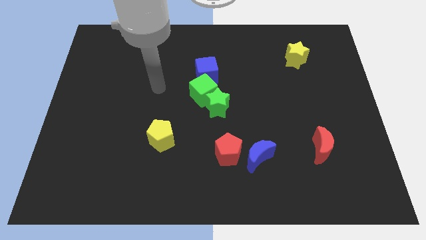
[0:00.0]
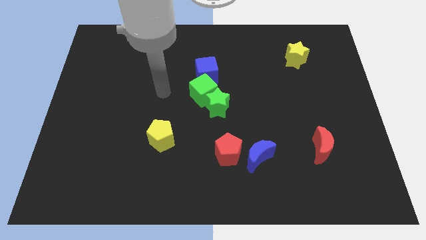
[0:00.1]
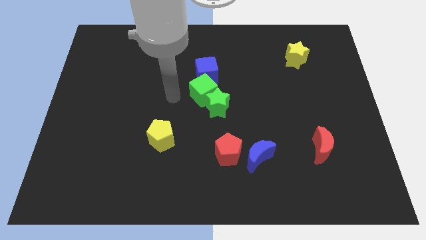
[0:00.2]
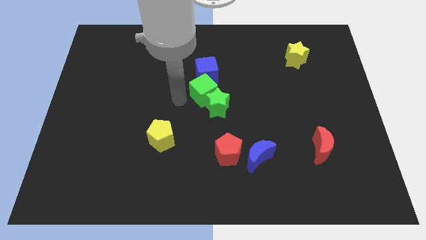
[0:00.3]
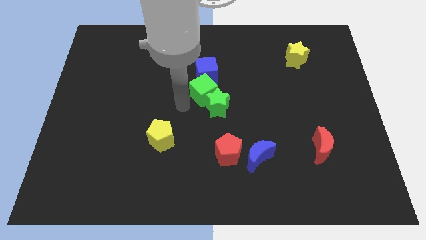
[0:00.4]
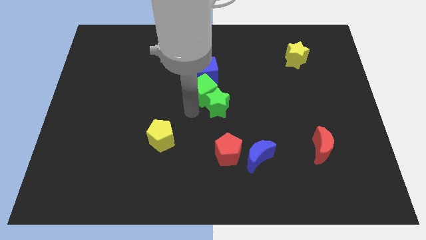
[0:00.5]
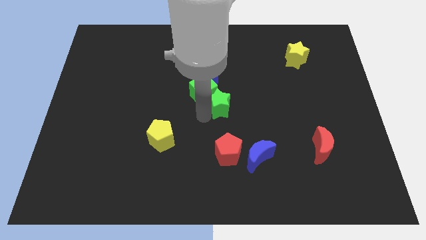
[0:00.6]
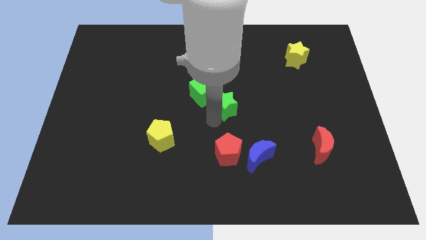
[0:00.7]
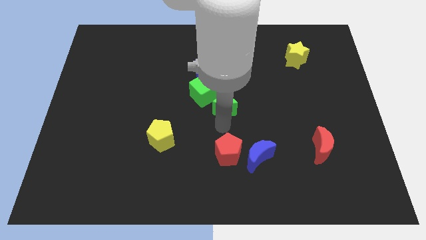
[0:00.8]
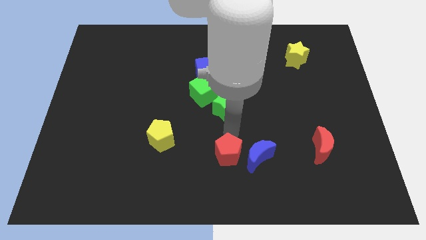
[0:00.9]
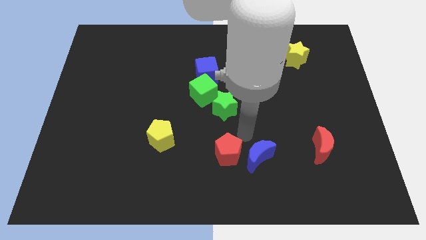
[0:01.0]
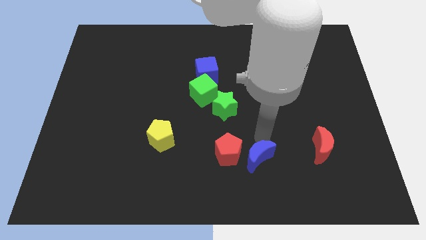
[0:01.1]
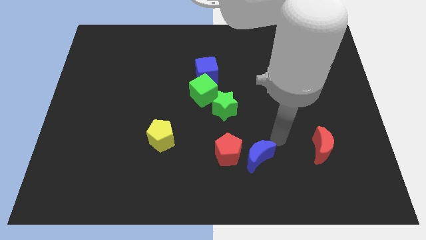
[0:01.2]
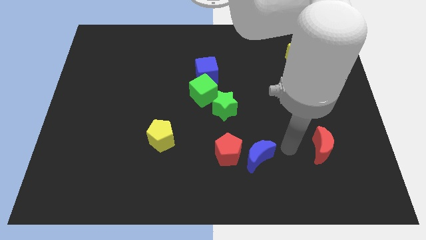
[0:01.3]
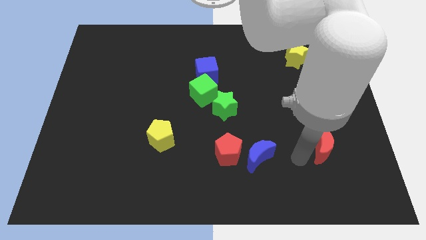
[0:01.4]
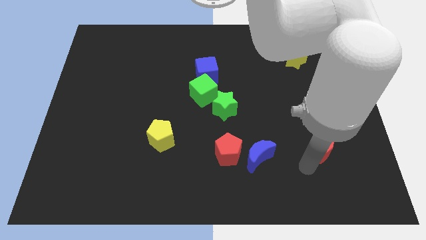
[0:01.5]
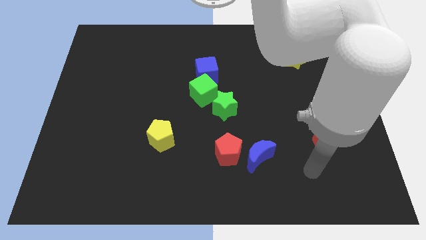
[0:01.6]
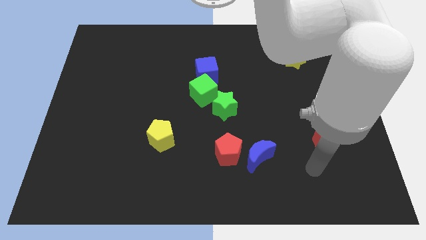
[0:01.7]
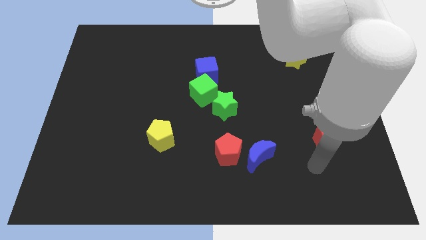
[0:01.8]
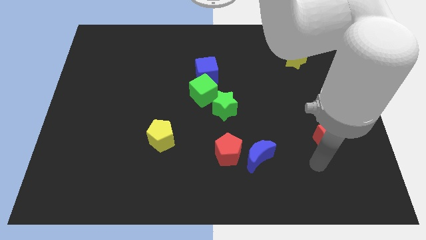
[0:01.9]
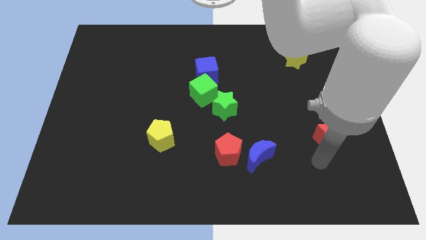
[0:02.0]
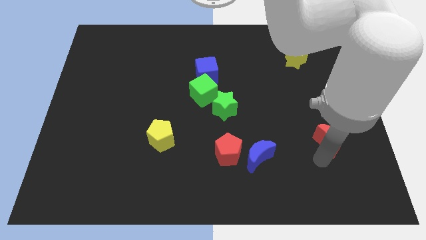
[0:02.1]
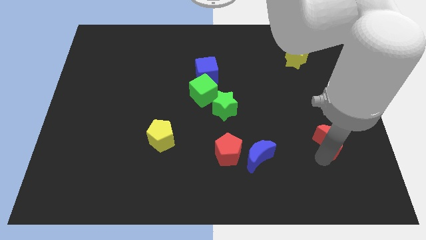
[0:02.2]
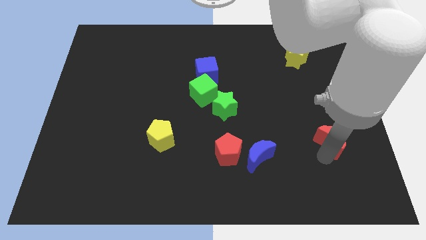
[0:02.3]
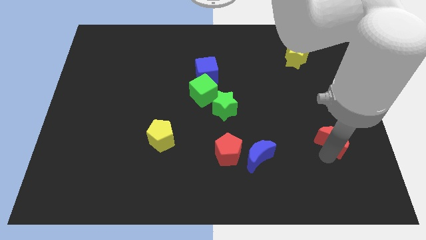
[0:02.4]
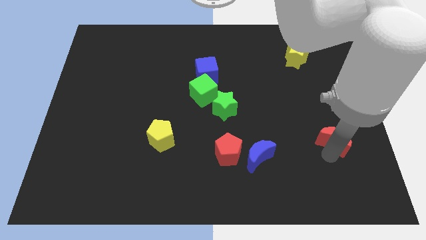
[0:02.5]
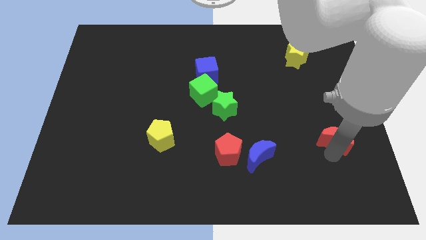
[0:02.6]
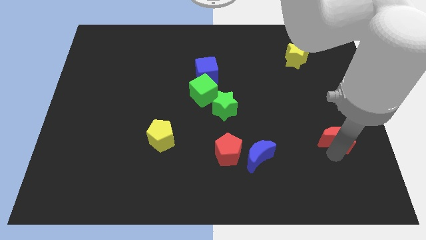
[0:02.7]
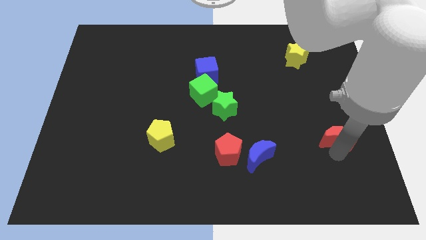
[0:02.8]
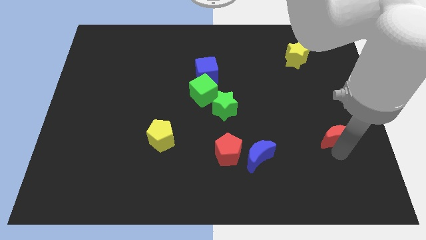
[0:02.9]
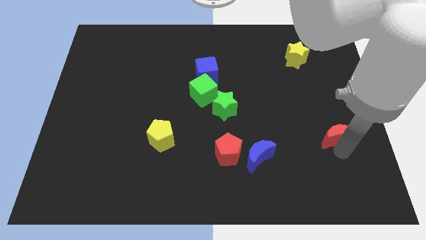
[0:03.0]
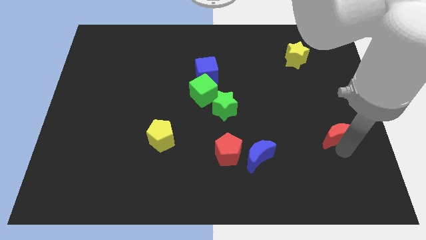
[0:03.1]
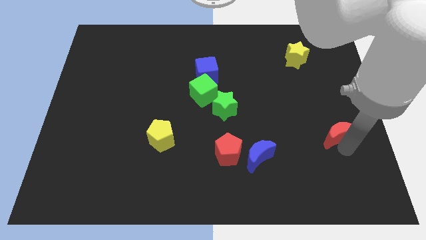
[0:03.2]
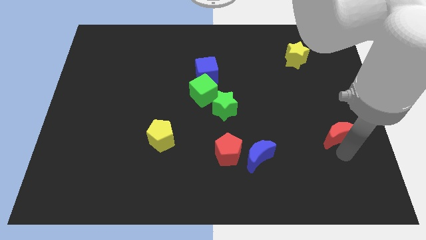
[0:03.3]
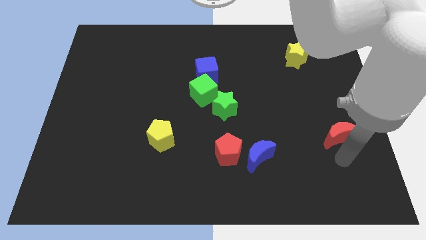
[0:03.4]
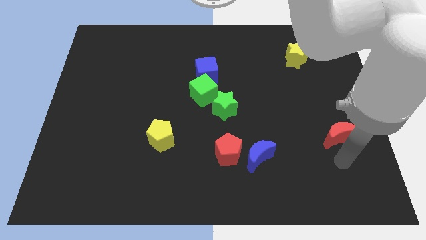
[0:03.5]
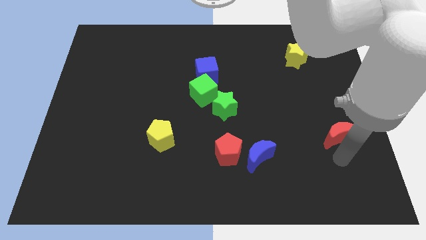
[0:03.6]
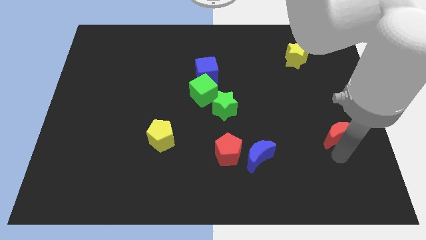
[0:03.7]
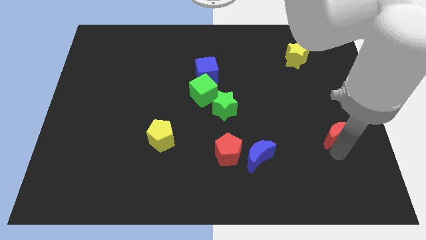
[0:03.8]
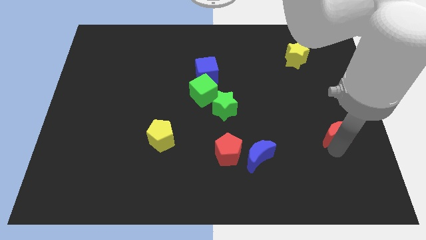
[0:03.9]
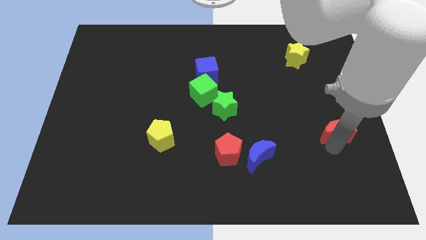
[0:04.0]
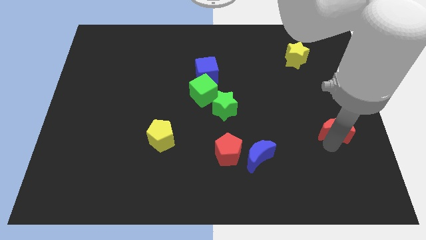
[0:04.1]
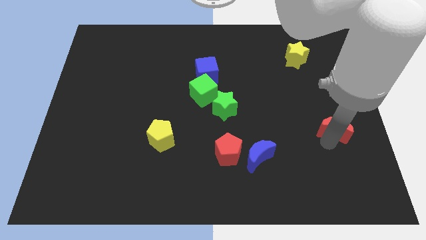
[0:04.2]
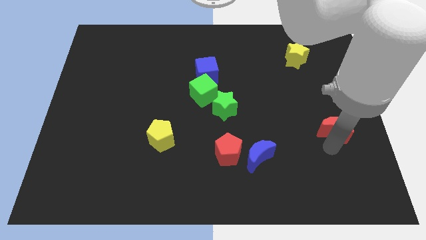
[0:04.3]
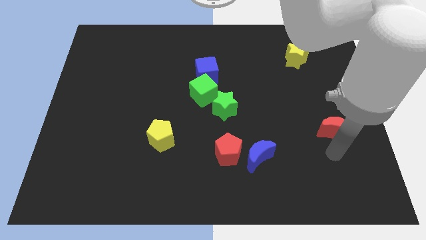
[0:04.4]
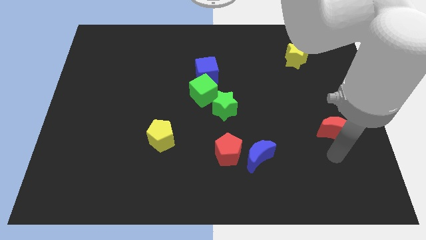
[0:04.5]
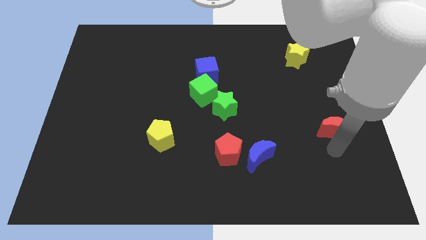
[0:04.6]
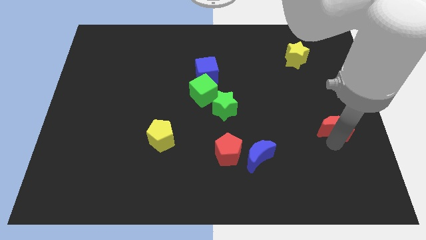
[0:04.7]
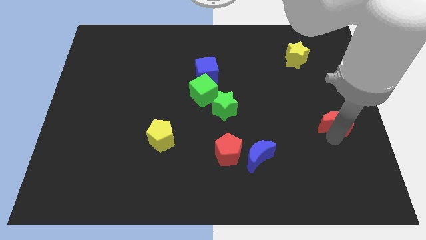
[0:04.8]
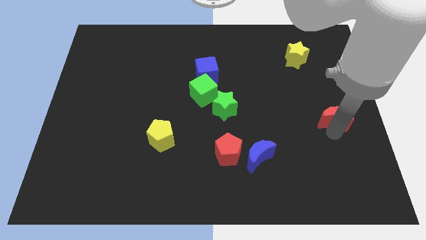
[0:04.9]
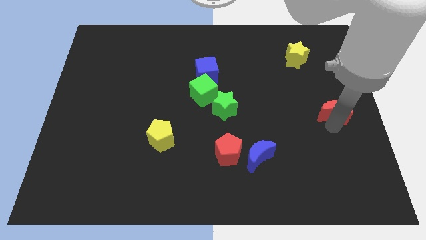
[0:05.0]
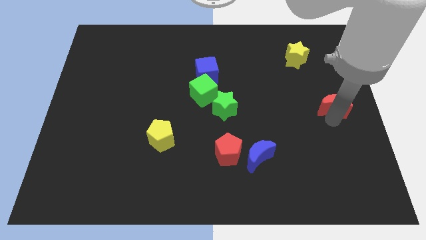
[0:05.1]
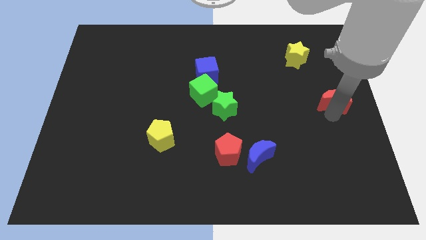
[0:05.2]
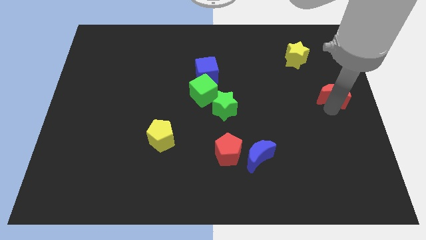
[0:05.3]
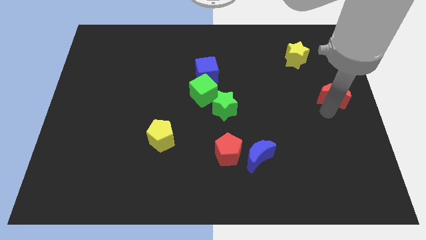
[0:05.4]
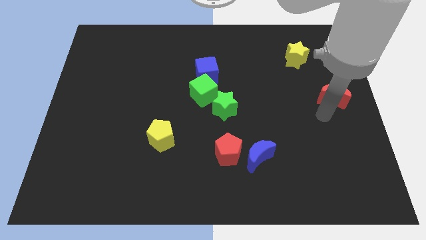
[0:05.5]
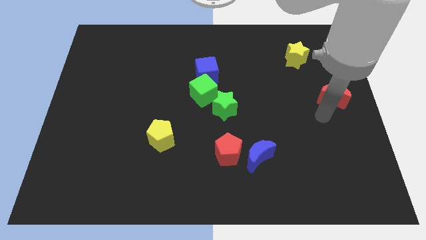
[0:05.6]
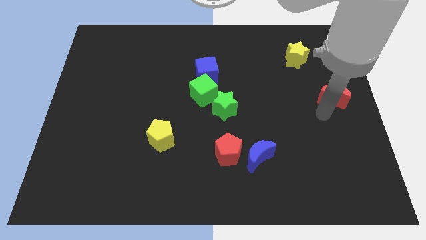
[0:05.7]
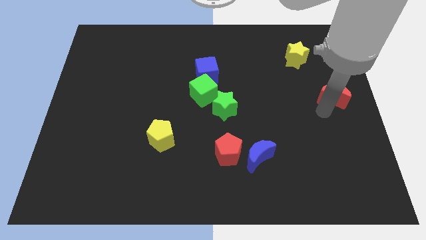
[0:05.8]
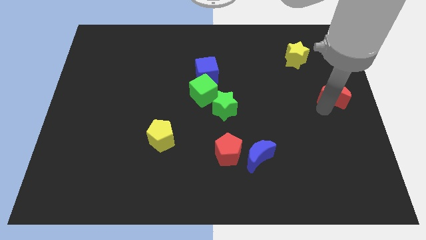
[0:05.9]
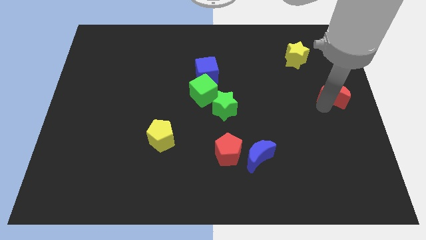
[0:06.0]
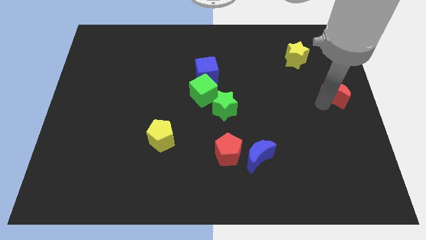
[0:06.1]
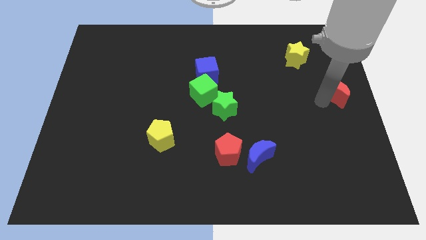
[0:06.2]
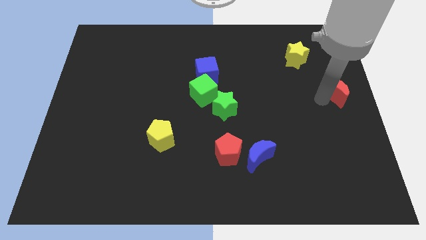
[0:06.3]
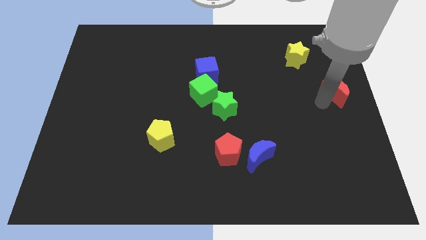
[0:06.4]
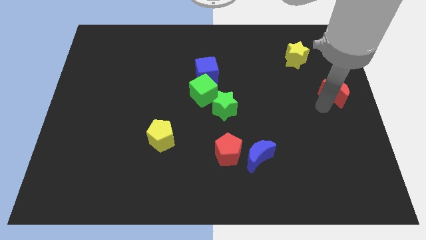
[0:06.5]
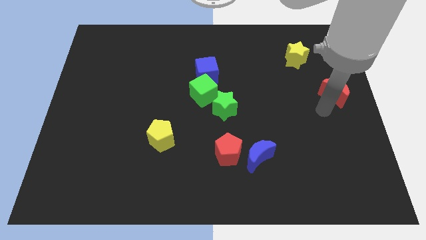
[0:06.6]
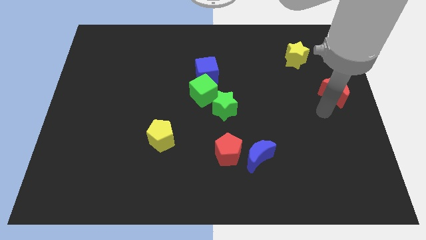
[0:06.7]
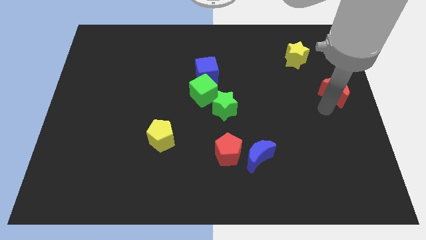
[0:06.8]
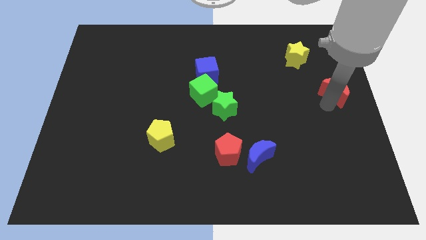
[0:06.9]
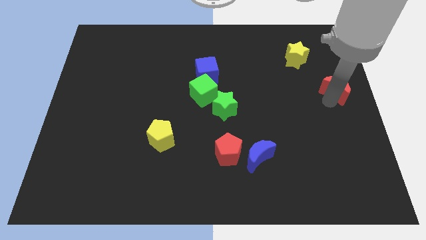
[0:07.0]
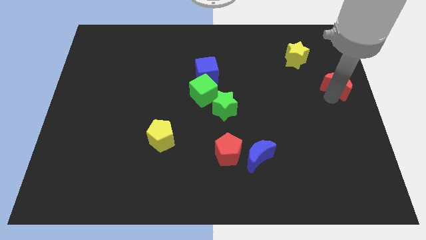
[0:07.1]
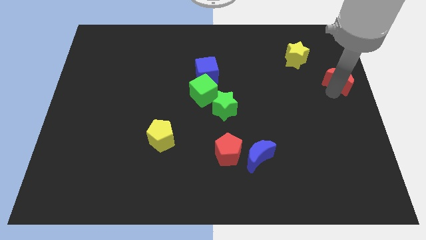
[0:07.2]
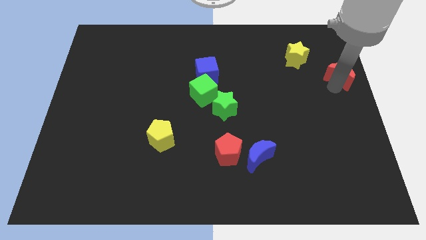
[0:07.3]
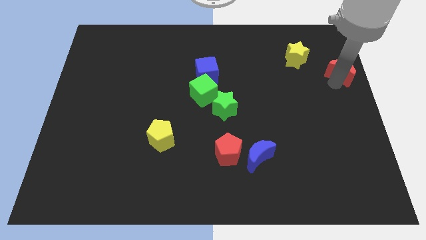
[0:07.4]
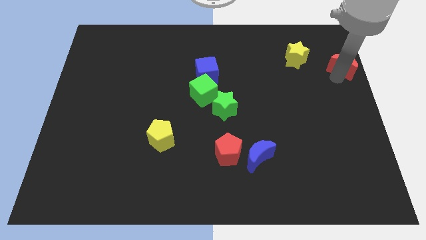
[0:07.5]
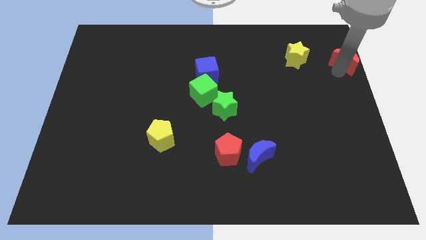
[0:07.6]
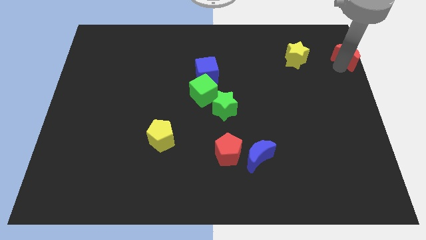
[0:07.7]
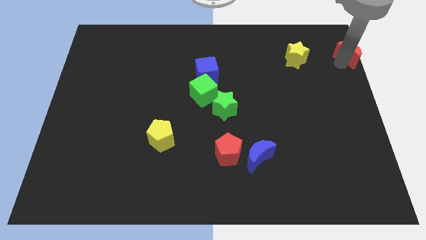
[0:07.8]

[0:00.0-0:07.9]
push the red moon to the top right of the board

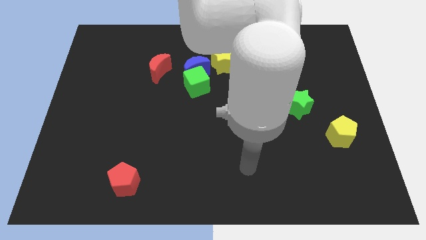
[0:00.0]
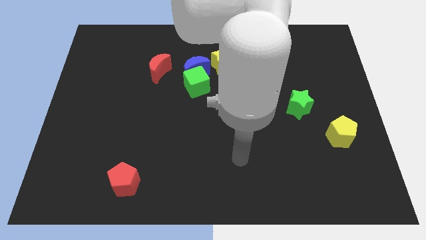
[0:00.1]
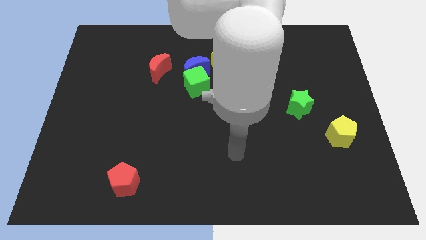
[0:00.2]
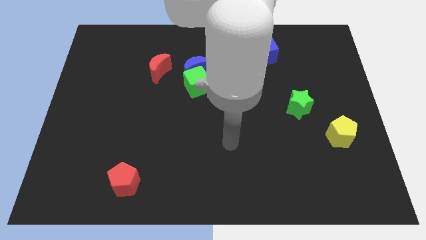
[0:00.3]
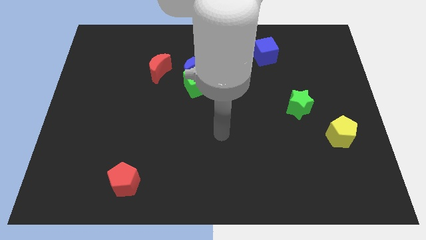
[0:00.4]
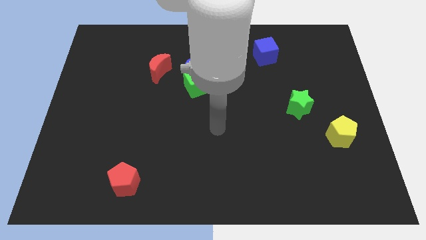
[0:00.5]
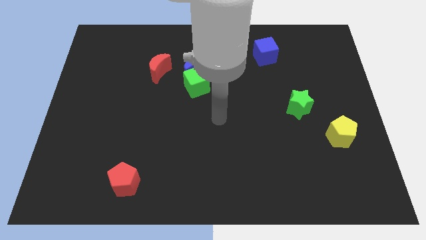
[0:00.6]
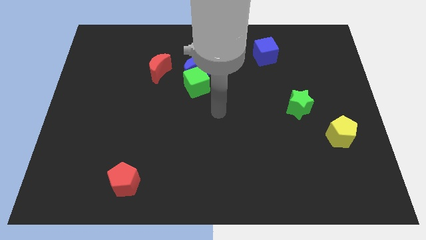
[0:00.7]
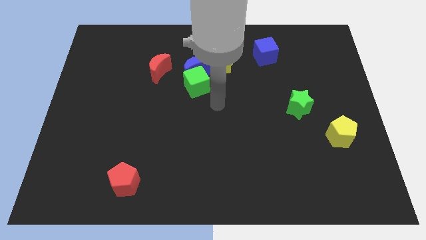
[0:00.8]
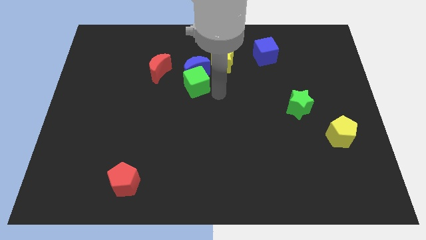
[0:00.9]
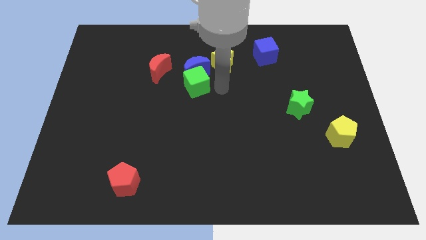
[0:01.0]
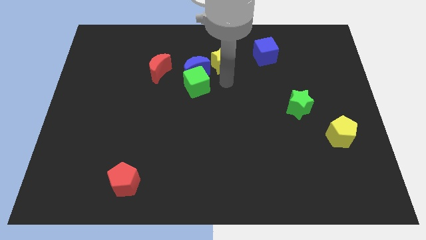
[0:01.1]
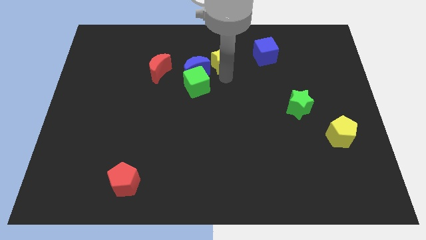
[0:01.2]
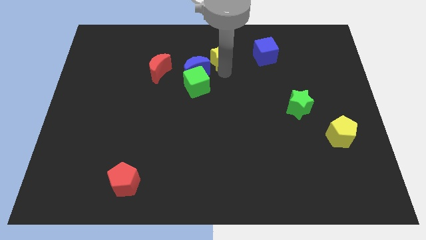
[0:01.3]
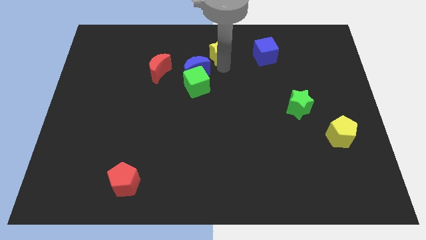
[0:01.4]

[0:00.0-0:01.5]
slide the yellow star to the top
